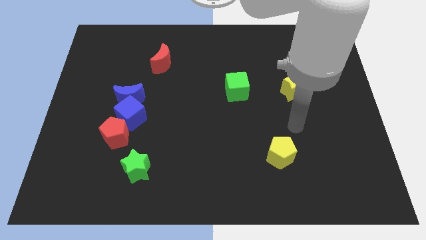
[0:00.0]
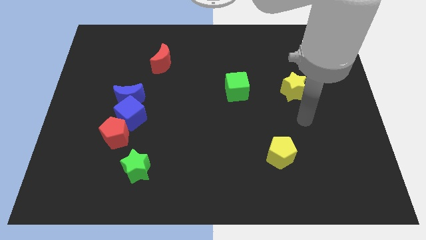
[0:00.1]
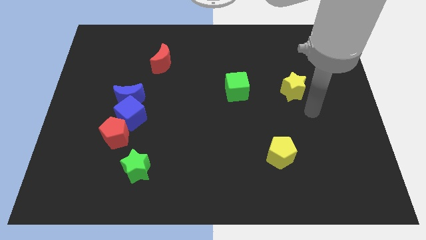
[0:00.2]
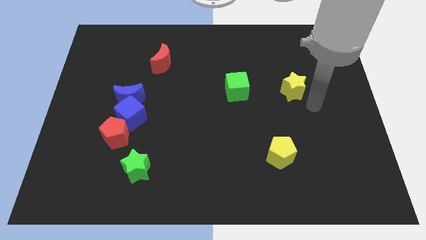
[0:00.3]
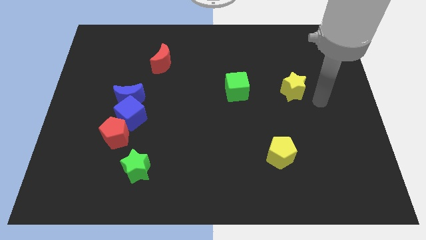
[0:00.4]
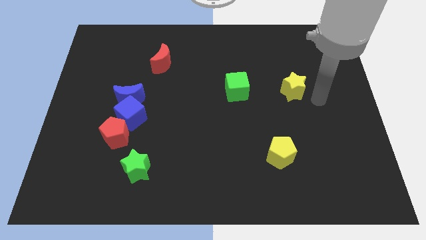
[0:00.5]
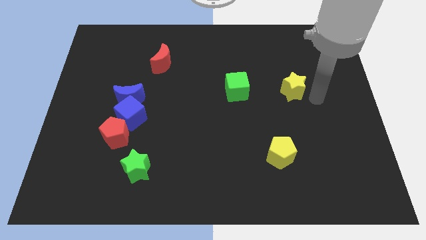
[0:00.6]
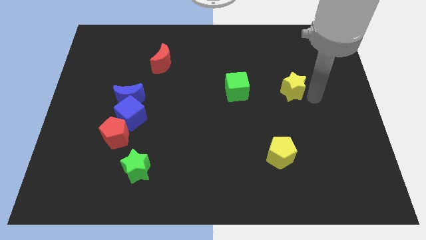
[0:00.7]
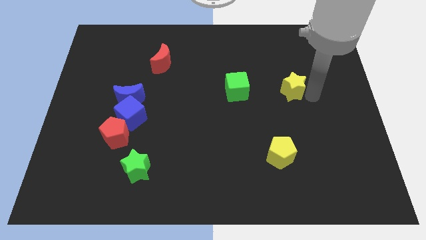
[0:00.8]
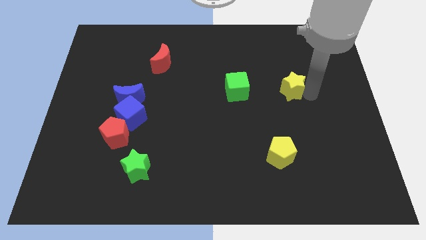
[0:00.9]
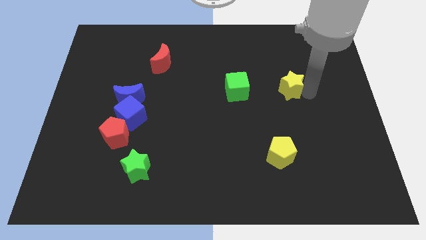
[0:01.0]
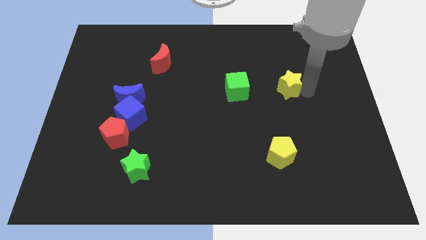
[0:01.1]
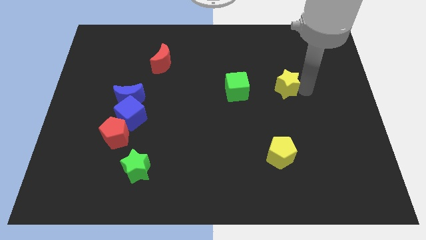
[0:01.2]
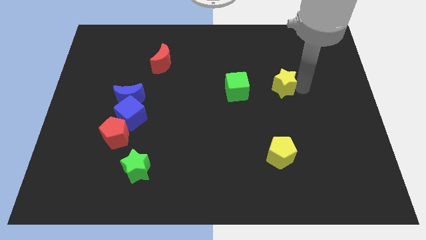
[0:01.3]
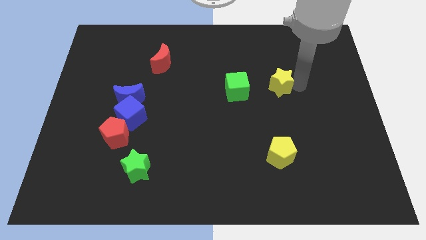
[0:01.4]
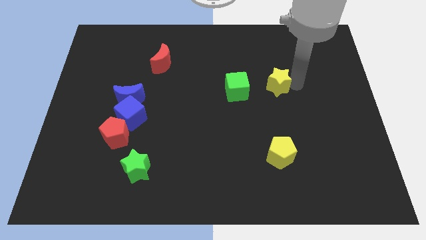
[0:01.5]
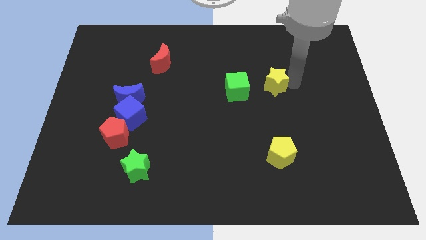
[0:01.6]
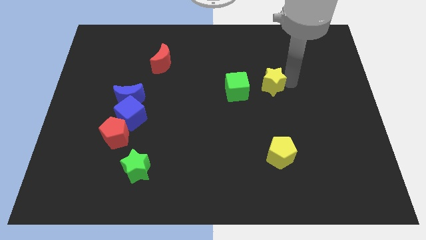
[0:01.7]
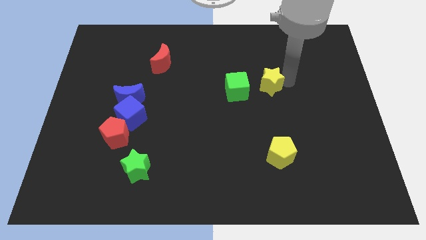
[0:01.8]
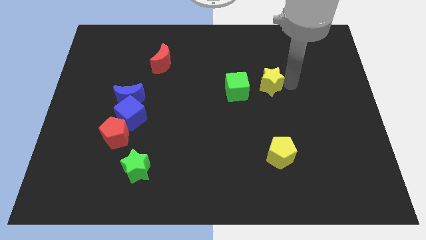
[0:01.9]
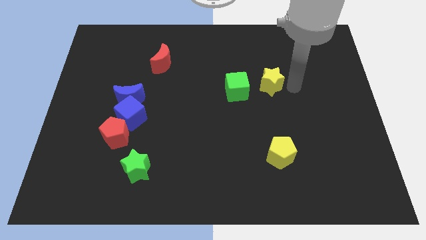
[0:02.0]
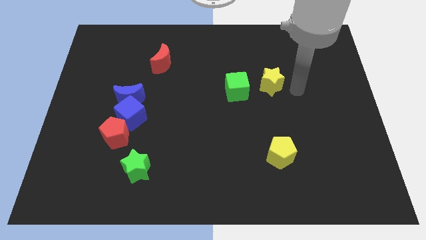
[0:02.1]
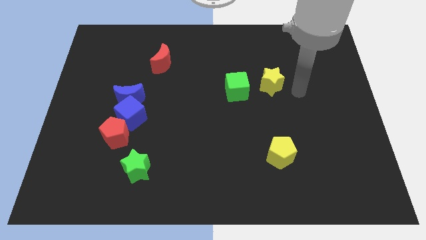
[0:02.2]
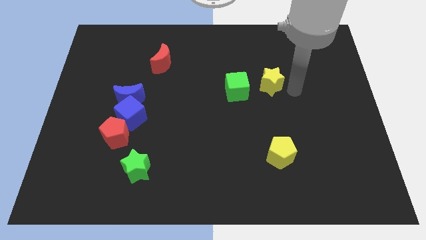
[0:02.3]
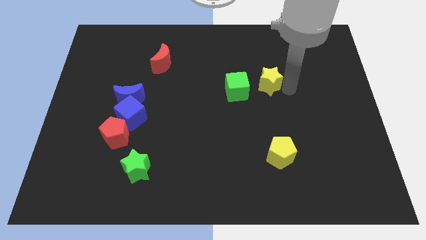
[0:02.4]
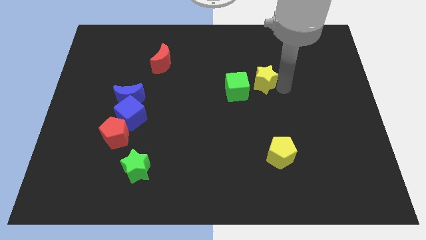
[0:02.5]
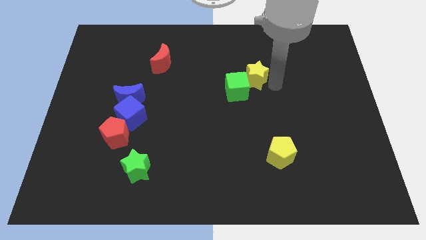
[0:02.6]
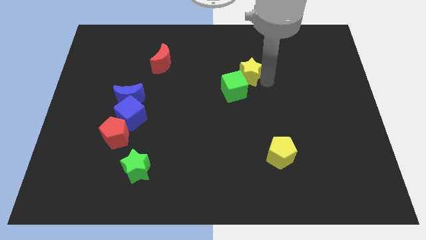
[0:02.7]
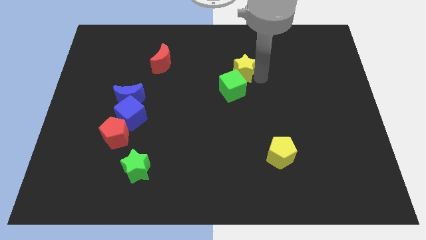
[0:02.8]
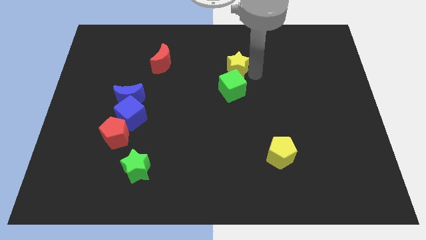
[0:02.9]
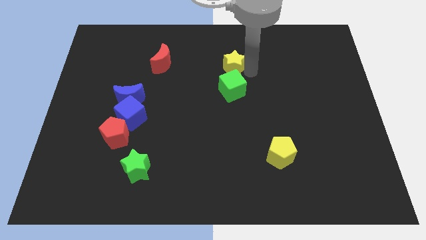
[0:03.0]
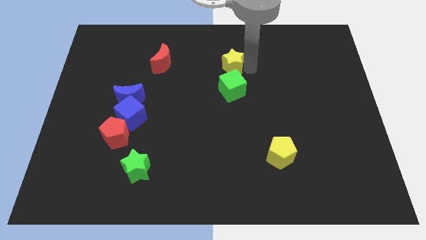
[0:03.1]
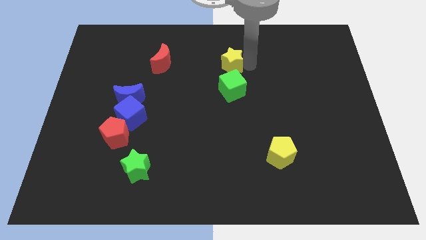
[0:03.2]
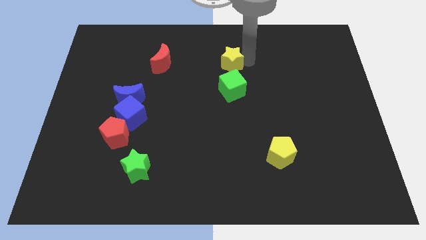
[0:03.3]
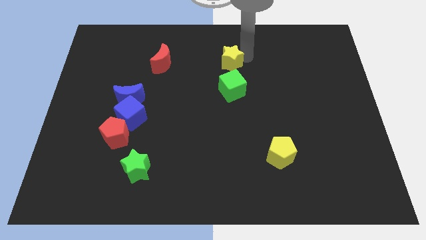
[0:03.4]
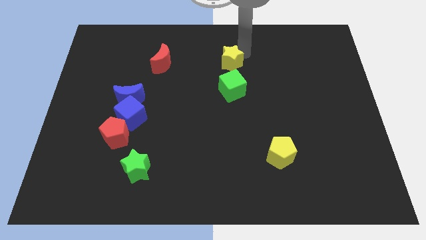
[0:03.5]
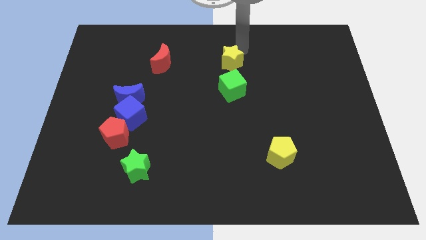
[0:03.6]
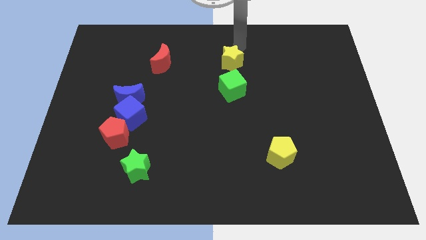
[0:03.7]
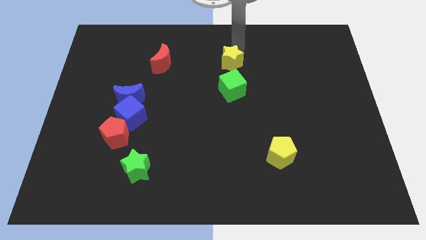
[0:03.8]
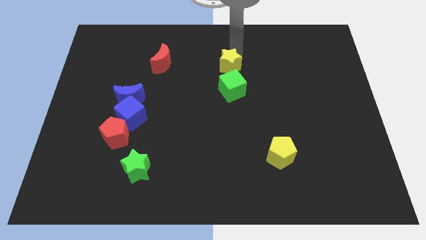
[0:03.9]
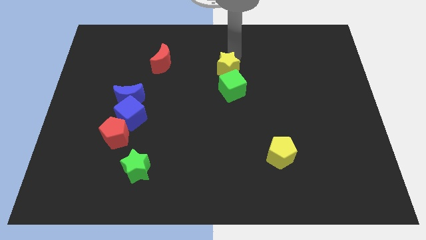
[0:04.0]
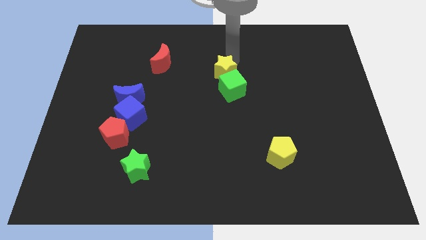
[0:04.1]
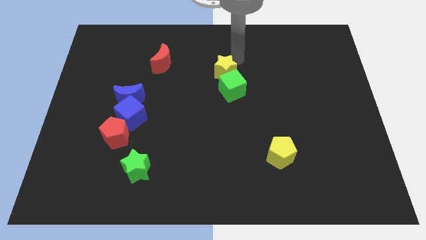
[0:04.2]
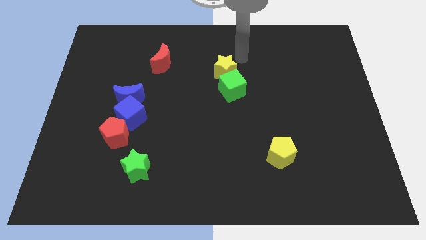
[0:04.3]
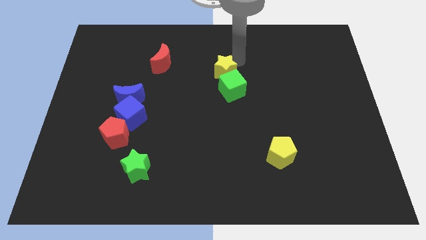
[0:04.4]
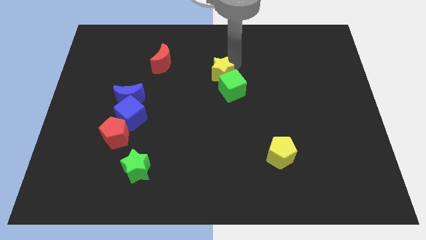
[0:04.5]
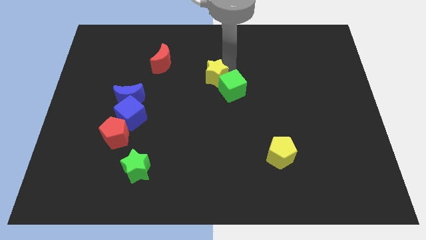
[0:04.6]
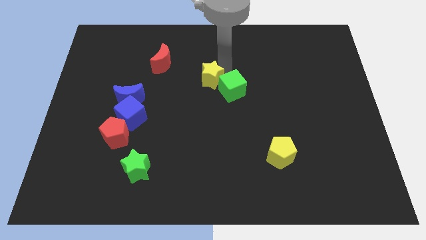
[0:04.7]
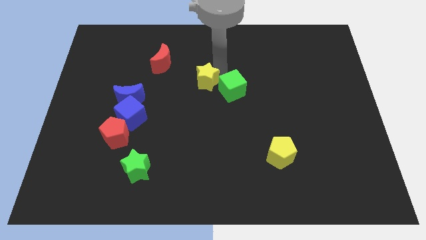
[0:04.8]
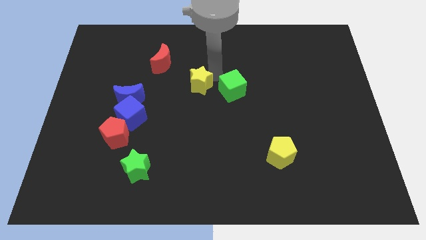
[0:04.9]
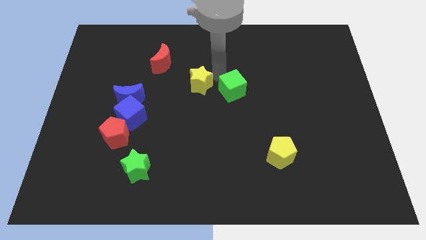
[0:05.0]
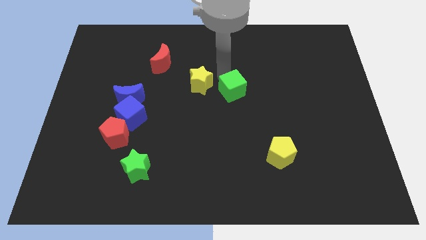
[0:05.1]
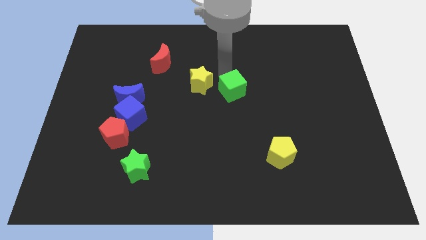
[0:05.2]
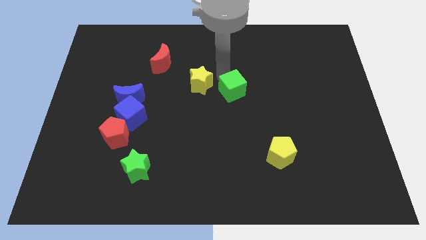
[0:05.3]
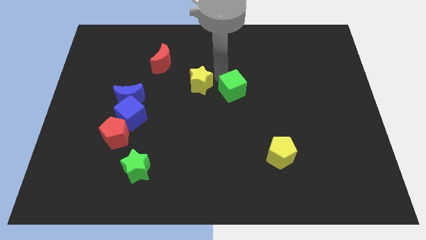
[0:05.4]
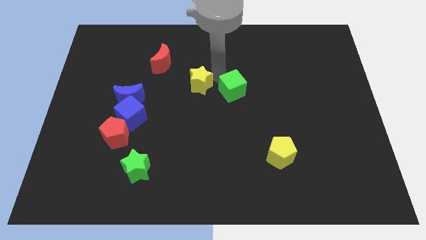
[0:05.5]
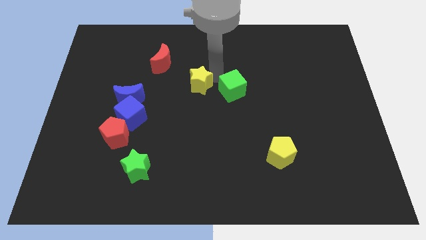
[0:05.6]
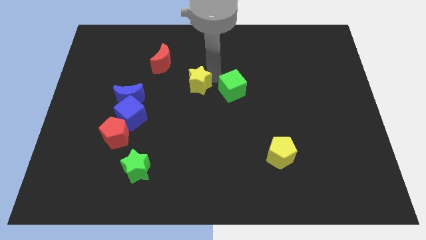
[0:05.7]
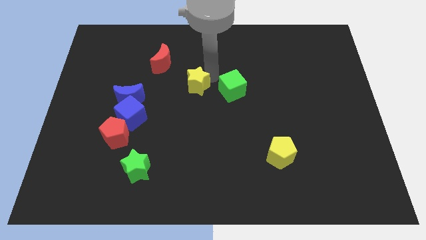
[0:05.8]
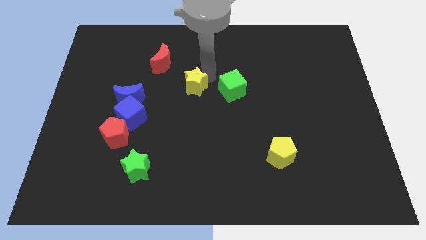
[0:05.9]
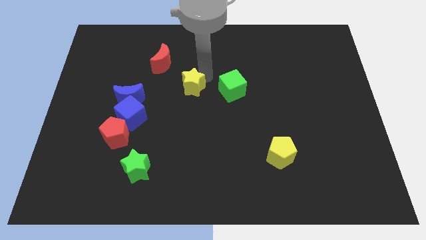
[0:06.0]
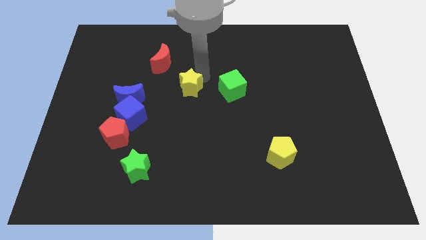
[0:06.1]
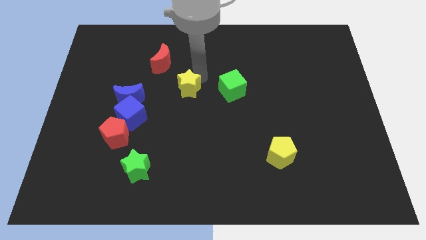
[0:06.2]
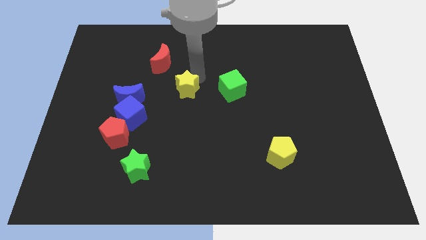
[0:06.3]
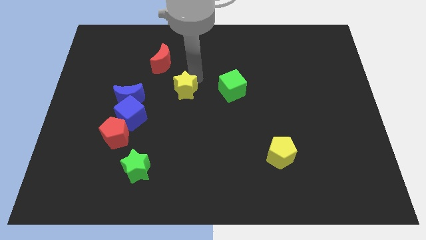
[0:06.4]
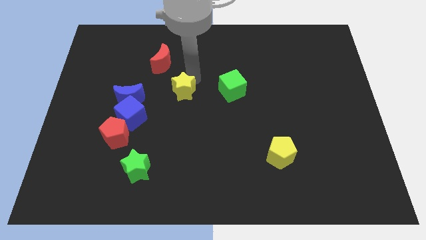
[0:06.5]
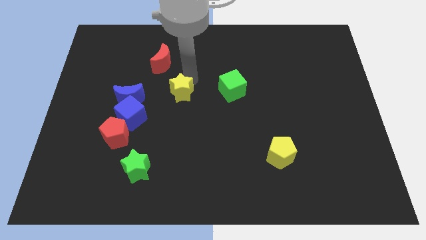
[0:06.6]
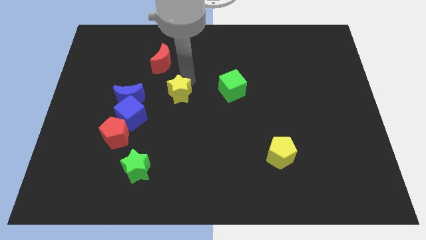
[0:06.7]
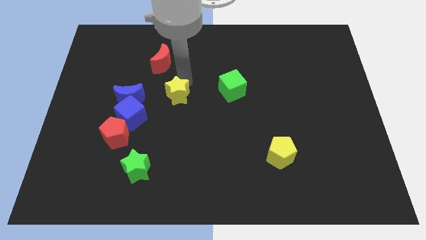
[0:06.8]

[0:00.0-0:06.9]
put the yellow star diagonally up and to the right of the blue cube

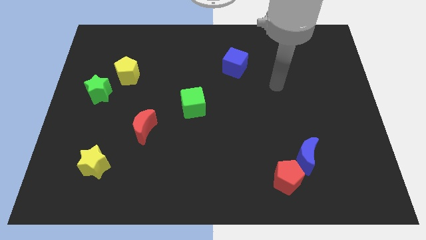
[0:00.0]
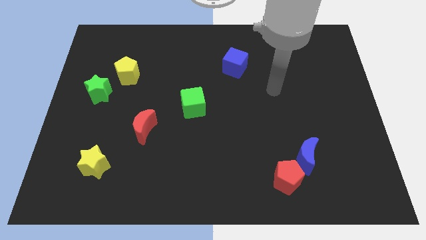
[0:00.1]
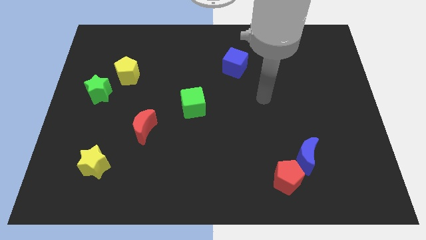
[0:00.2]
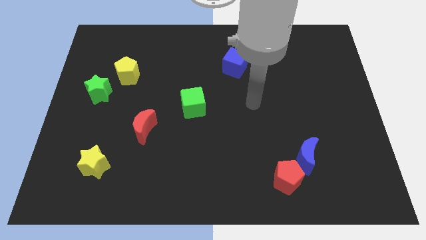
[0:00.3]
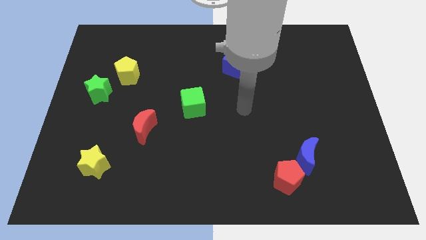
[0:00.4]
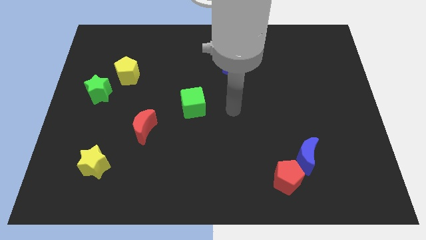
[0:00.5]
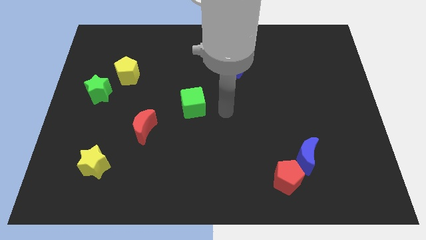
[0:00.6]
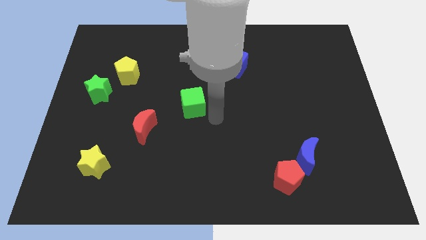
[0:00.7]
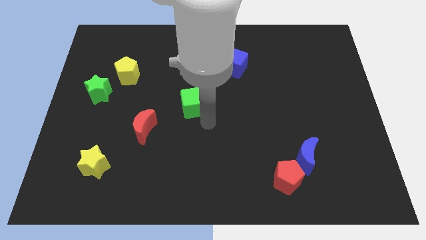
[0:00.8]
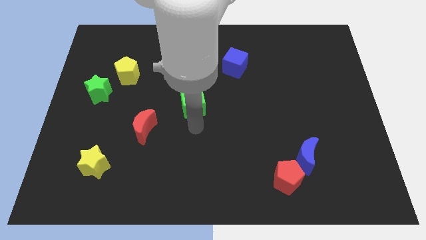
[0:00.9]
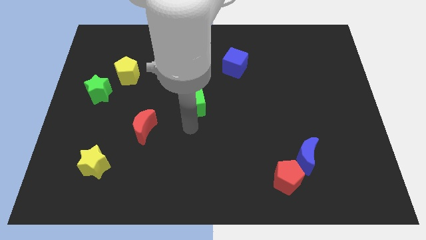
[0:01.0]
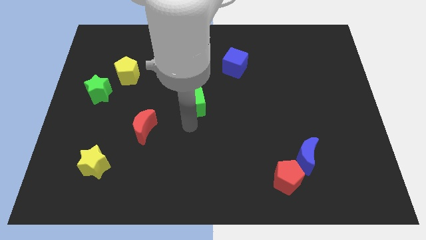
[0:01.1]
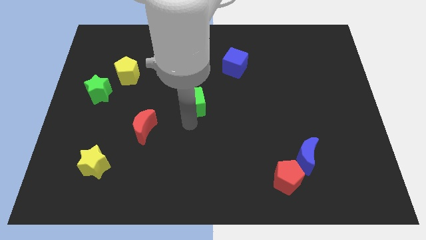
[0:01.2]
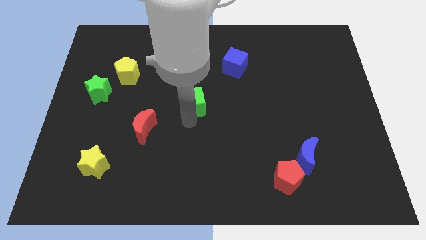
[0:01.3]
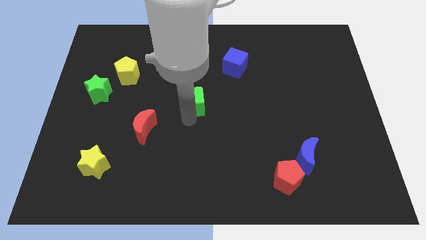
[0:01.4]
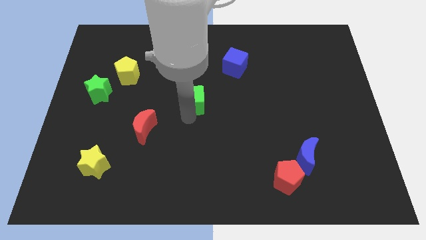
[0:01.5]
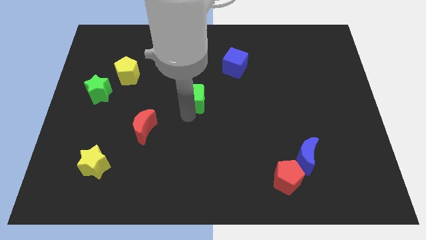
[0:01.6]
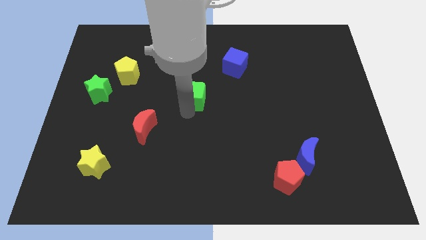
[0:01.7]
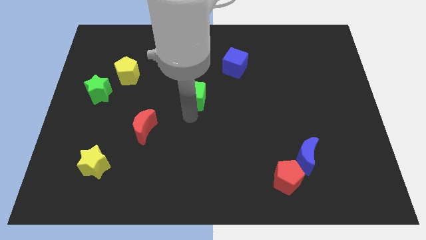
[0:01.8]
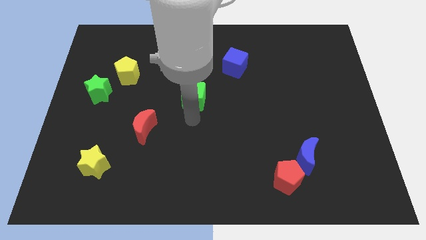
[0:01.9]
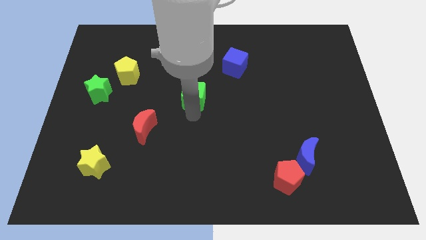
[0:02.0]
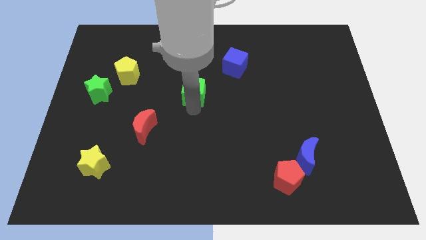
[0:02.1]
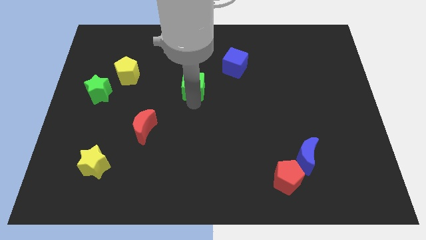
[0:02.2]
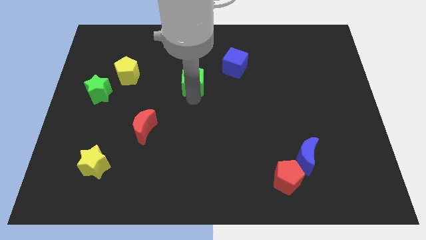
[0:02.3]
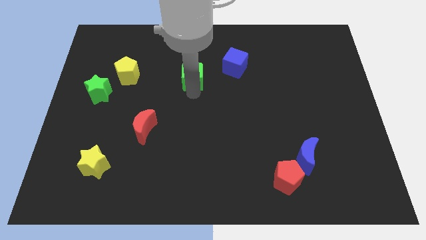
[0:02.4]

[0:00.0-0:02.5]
put the green cube just left of the blue cube
